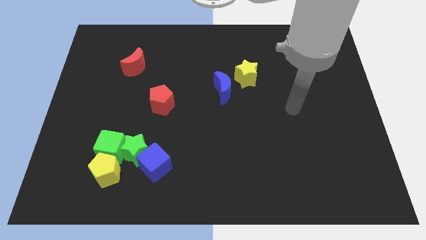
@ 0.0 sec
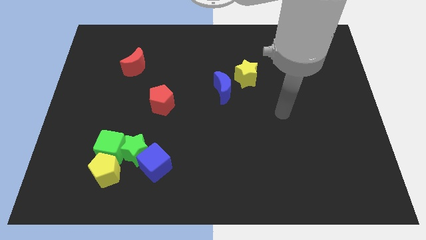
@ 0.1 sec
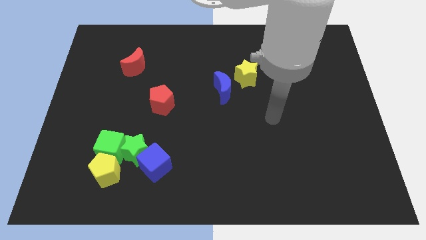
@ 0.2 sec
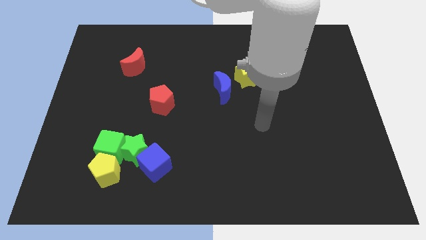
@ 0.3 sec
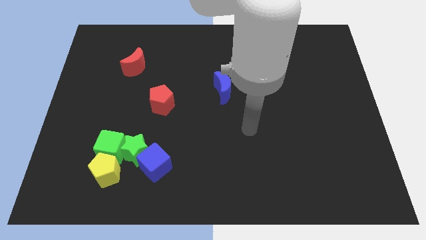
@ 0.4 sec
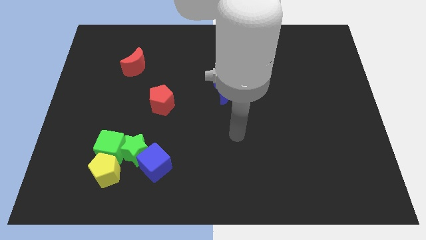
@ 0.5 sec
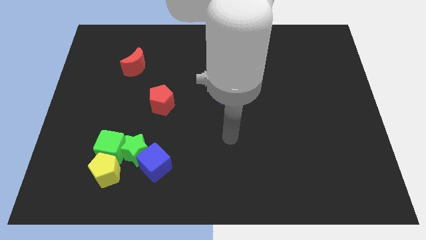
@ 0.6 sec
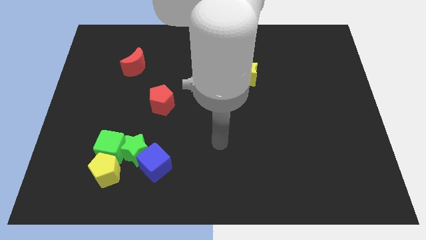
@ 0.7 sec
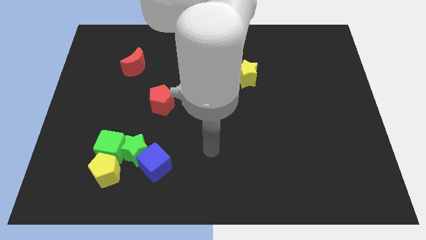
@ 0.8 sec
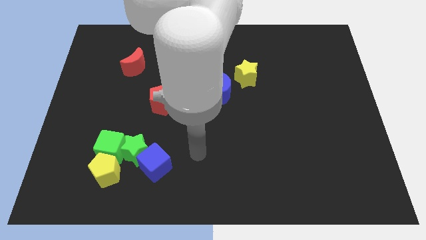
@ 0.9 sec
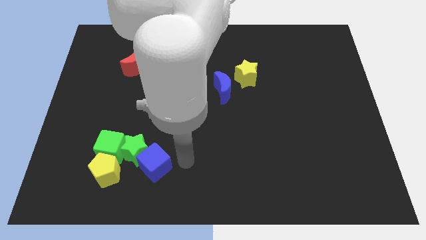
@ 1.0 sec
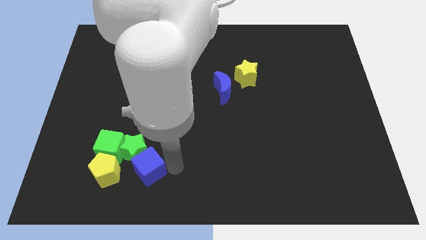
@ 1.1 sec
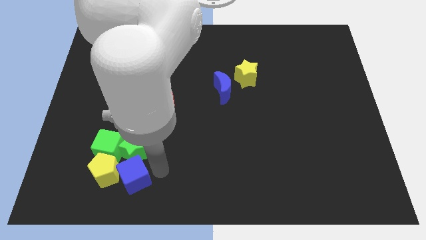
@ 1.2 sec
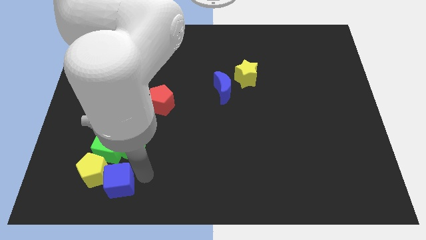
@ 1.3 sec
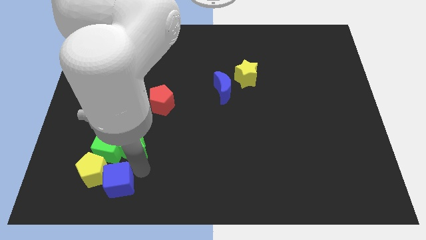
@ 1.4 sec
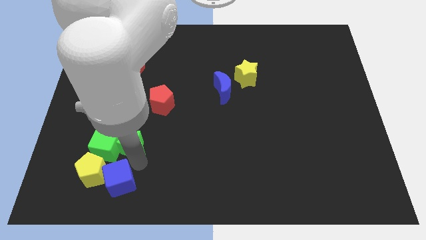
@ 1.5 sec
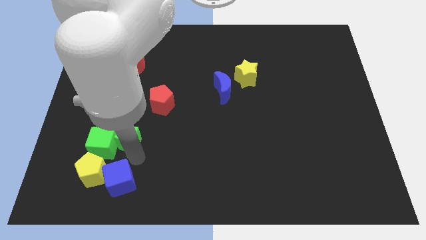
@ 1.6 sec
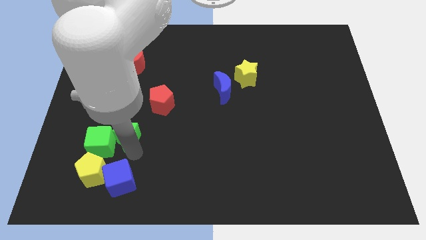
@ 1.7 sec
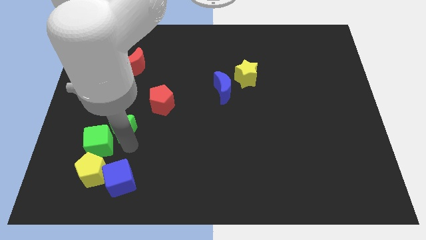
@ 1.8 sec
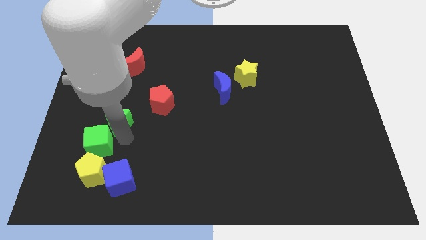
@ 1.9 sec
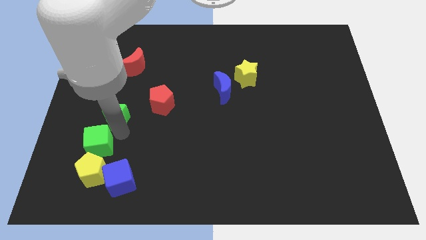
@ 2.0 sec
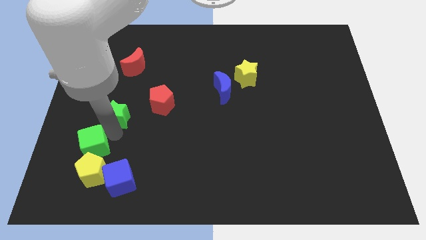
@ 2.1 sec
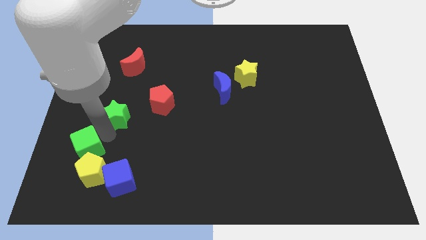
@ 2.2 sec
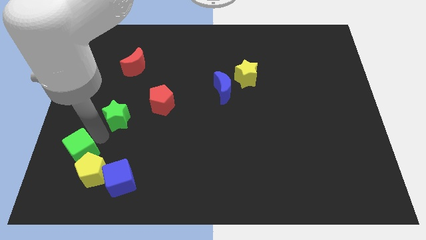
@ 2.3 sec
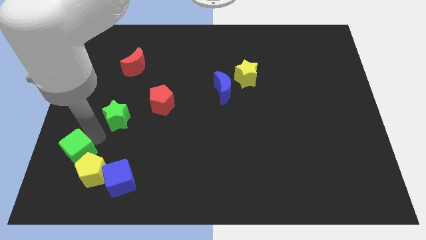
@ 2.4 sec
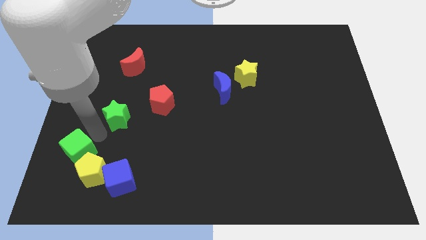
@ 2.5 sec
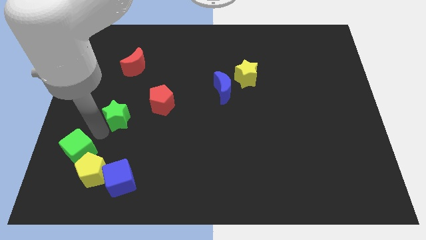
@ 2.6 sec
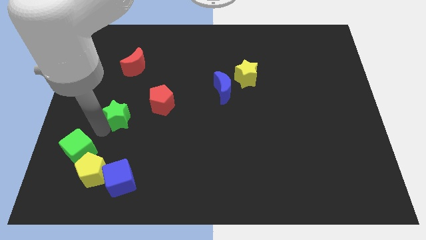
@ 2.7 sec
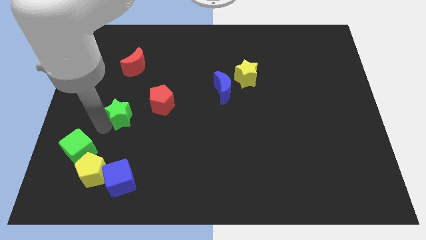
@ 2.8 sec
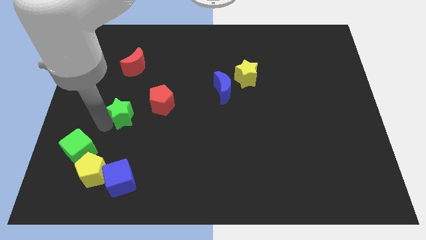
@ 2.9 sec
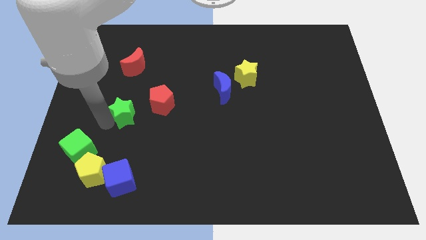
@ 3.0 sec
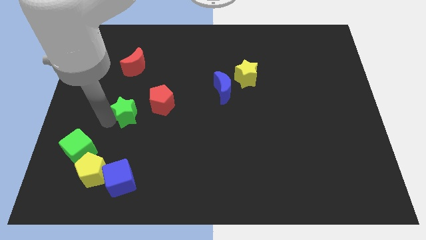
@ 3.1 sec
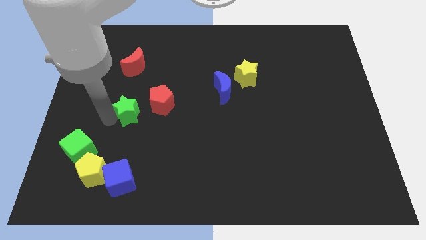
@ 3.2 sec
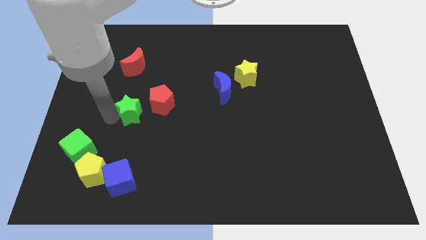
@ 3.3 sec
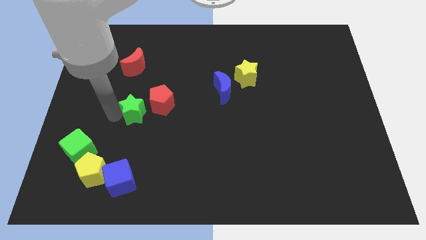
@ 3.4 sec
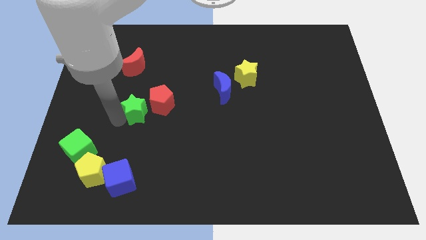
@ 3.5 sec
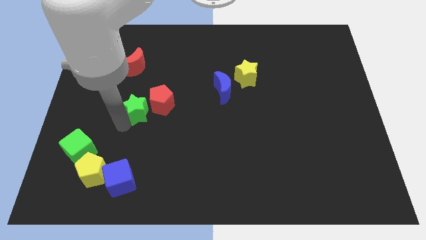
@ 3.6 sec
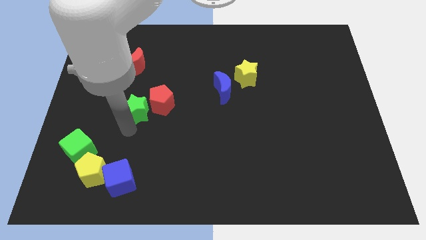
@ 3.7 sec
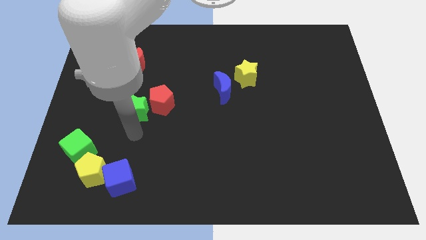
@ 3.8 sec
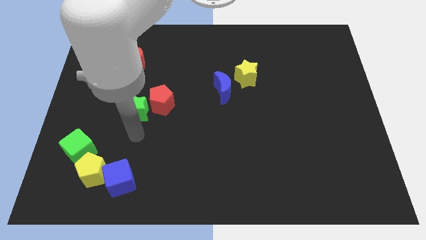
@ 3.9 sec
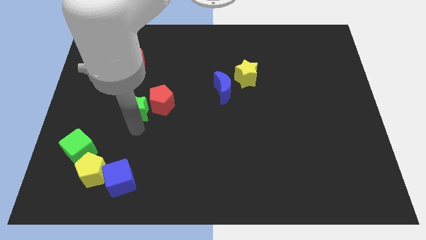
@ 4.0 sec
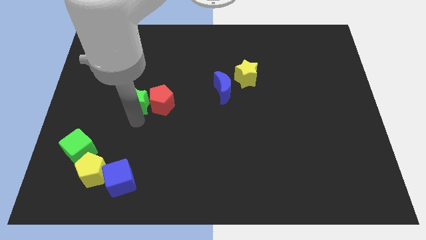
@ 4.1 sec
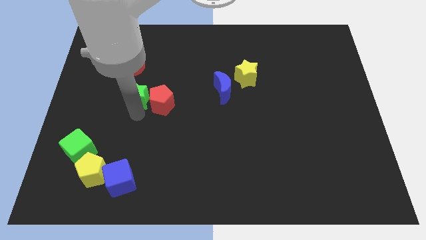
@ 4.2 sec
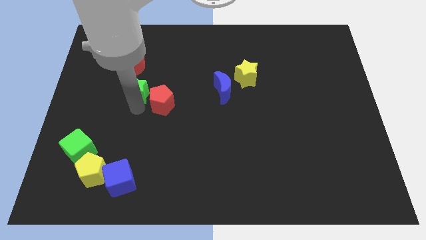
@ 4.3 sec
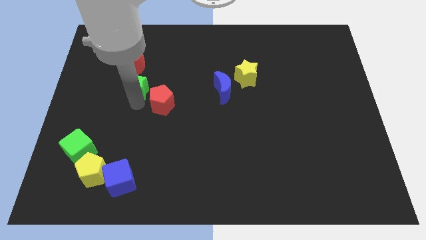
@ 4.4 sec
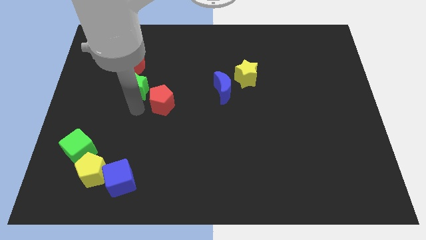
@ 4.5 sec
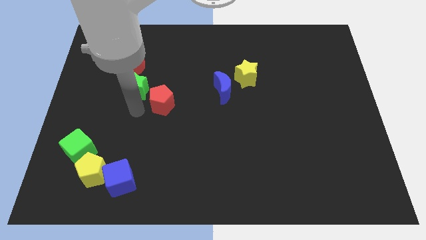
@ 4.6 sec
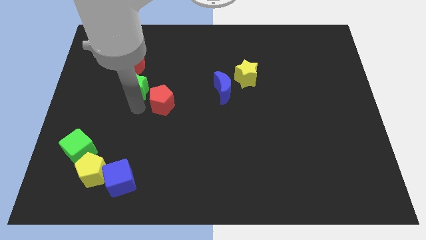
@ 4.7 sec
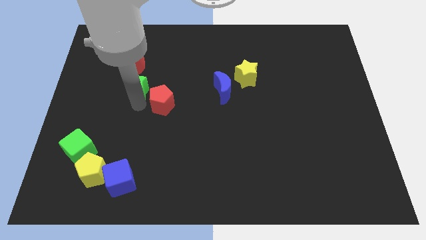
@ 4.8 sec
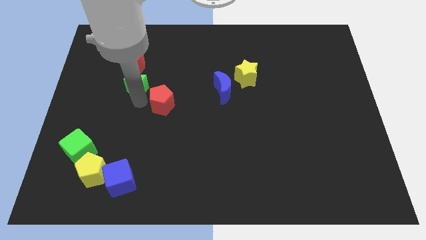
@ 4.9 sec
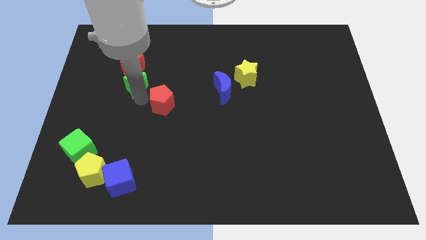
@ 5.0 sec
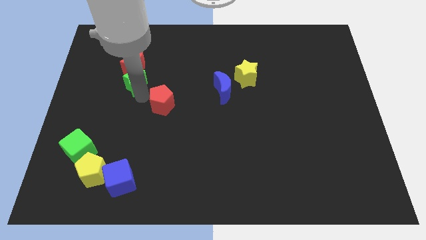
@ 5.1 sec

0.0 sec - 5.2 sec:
put the green star close to the red moon

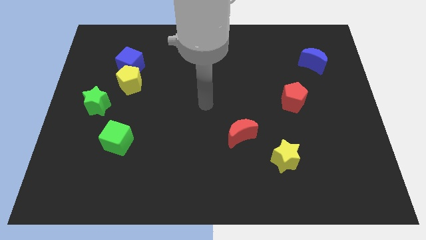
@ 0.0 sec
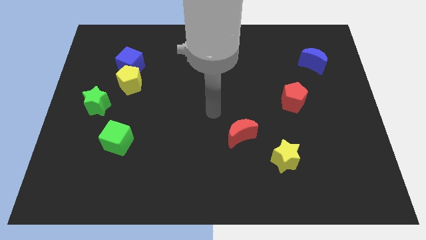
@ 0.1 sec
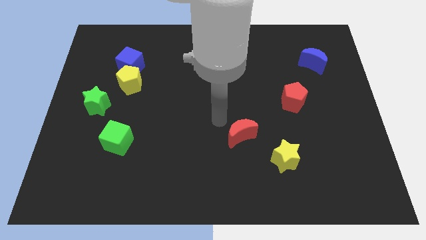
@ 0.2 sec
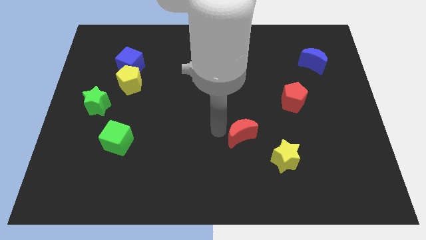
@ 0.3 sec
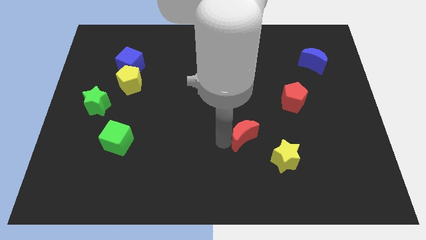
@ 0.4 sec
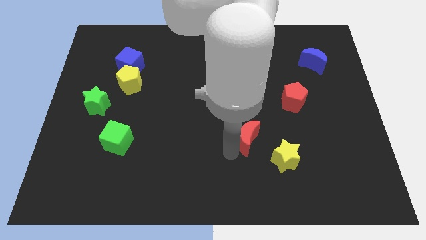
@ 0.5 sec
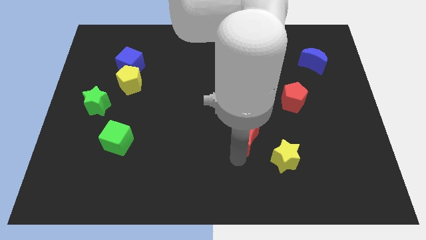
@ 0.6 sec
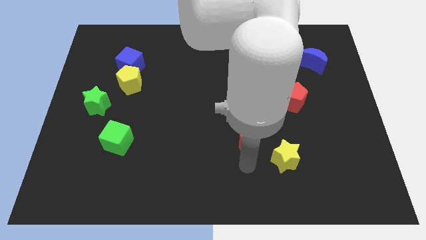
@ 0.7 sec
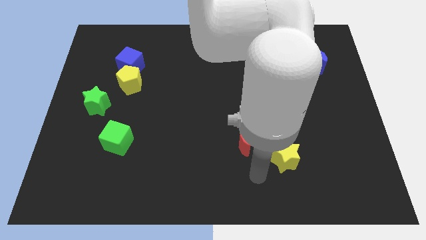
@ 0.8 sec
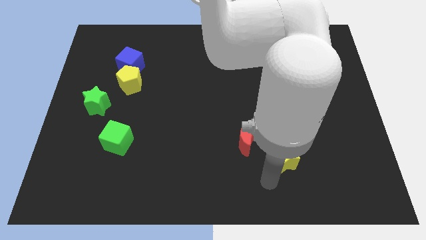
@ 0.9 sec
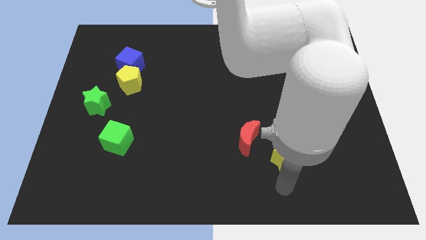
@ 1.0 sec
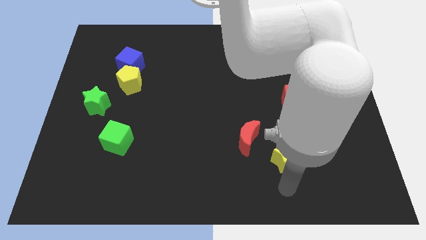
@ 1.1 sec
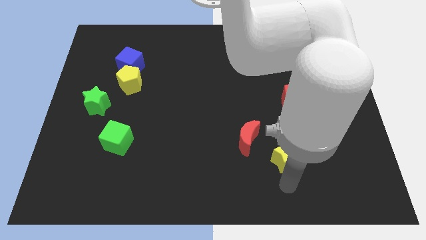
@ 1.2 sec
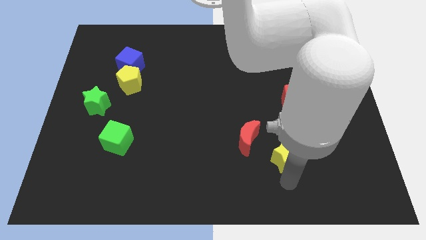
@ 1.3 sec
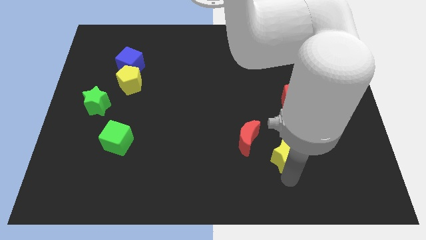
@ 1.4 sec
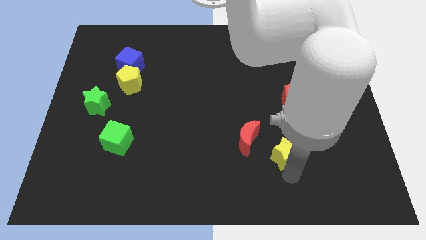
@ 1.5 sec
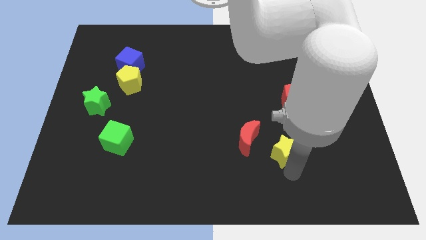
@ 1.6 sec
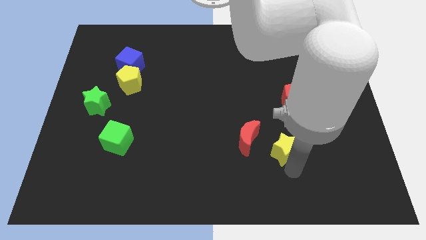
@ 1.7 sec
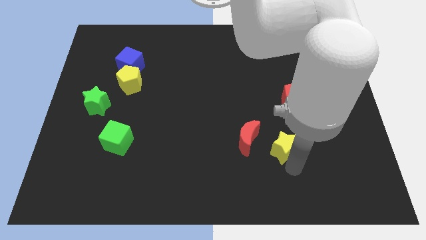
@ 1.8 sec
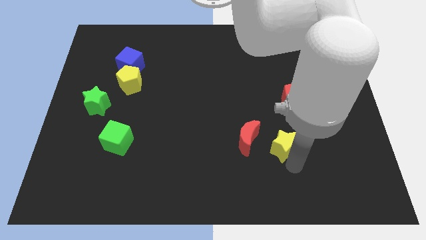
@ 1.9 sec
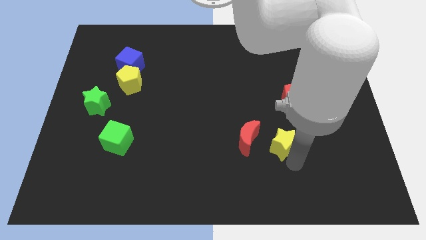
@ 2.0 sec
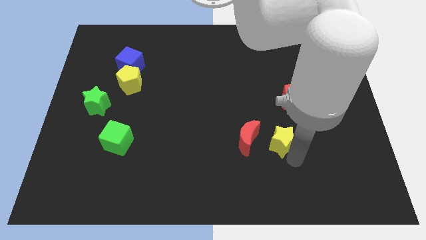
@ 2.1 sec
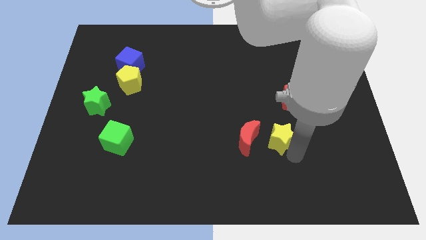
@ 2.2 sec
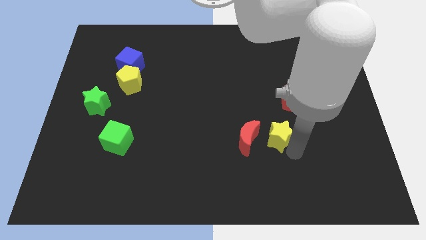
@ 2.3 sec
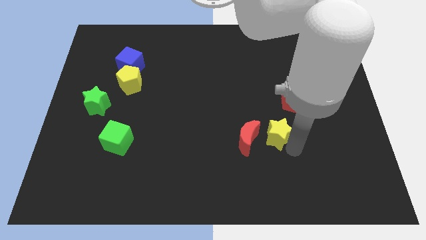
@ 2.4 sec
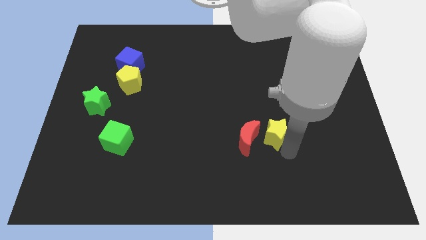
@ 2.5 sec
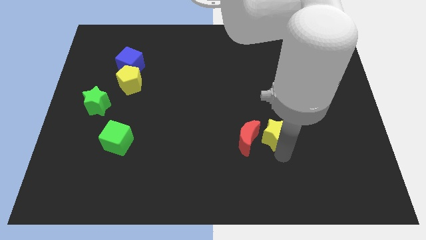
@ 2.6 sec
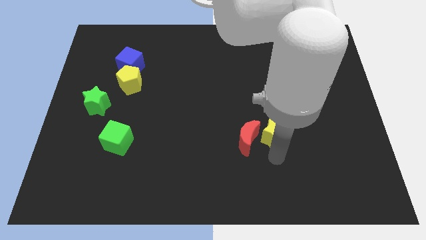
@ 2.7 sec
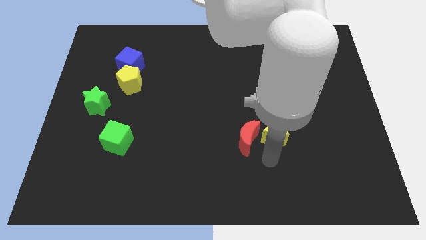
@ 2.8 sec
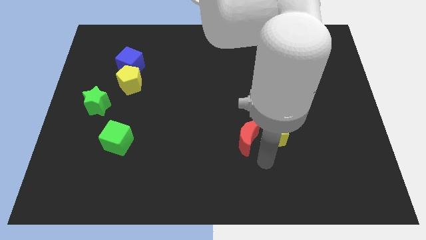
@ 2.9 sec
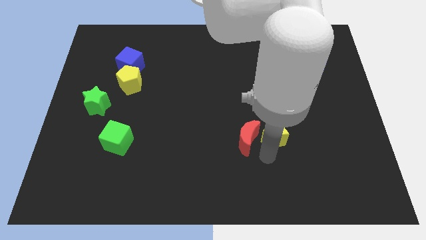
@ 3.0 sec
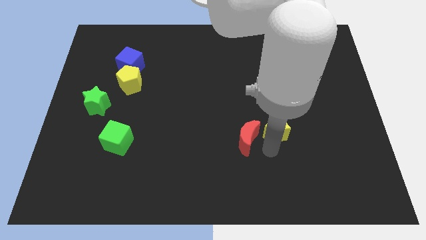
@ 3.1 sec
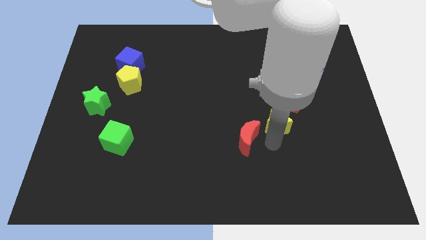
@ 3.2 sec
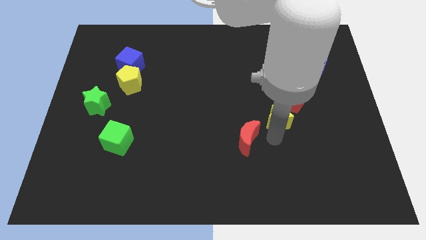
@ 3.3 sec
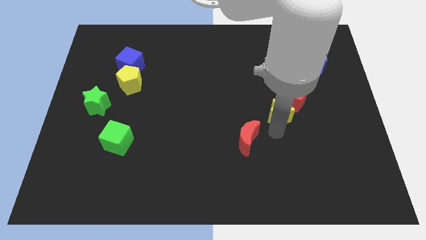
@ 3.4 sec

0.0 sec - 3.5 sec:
push the yellow star next to the red pentagon
